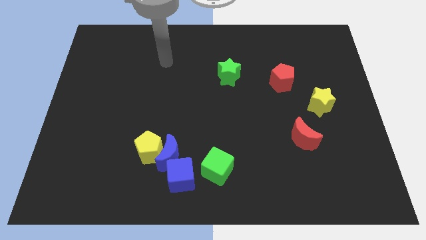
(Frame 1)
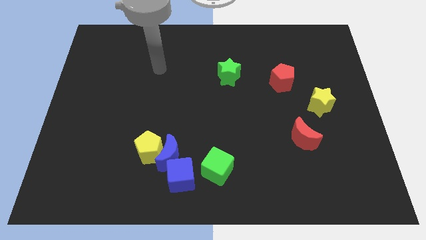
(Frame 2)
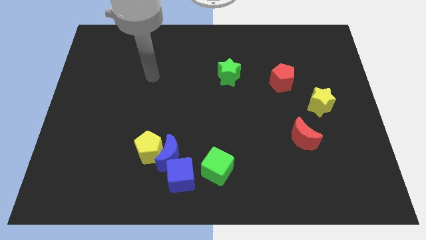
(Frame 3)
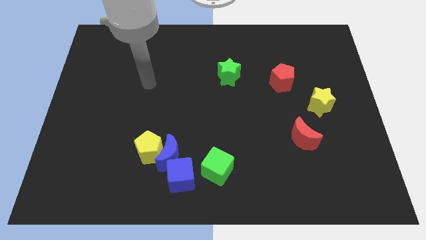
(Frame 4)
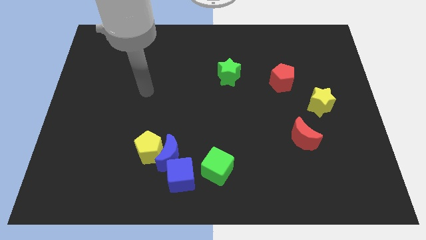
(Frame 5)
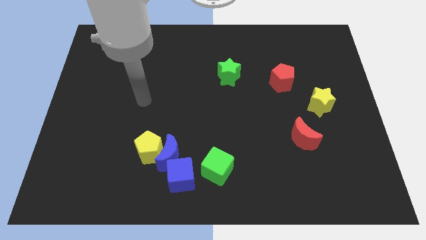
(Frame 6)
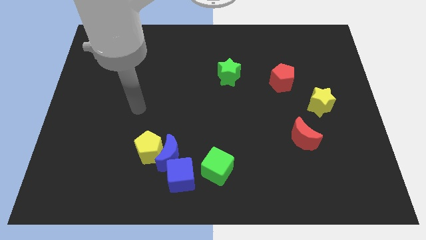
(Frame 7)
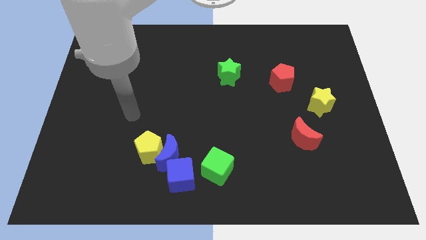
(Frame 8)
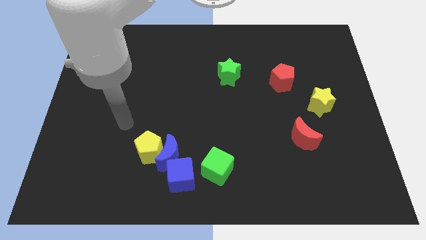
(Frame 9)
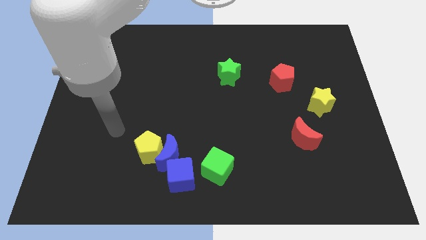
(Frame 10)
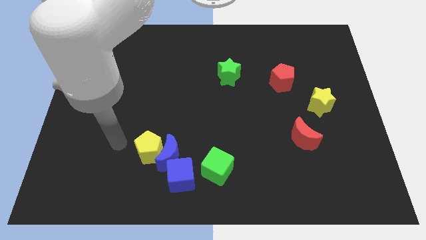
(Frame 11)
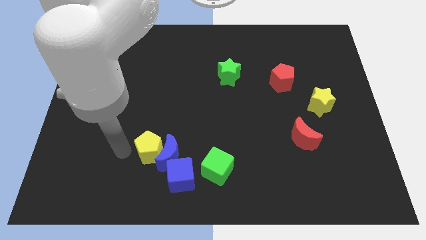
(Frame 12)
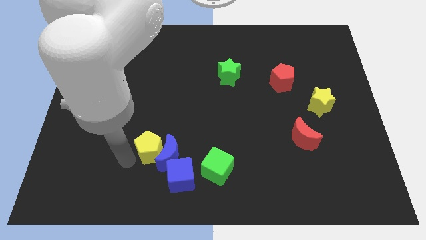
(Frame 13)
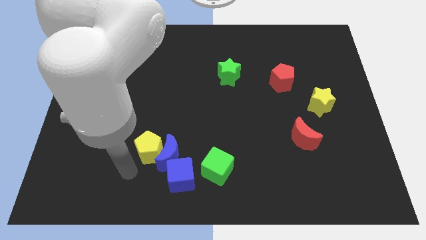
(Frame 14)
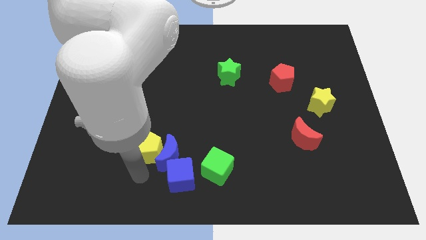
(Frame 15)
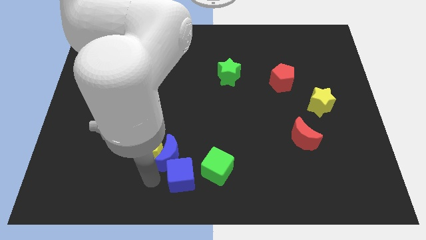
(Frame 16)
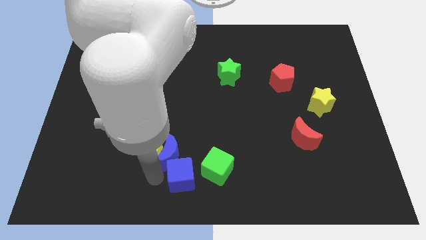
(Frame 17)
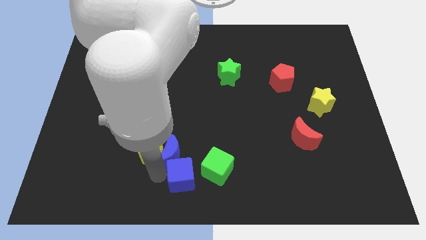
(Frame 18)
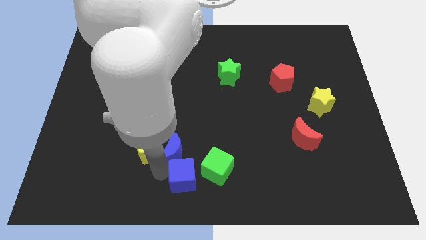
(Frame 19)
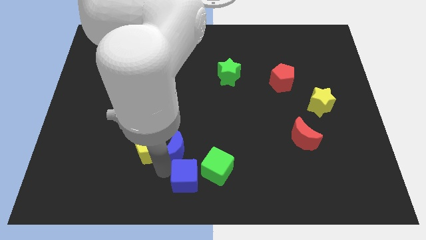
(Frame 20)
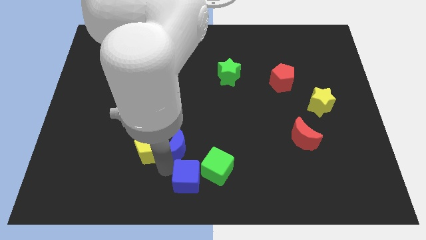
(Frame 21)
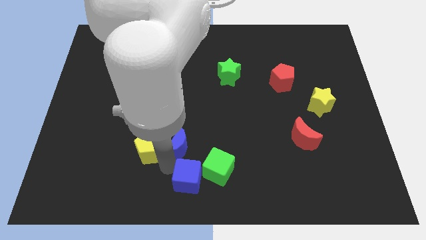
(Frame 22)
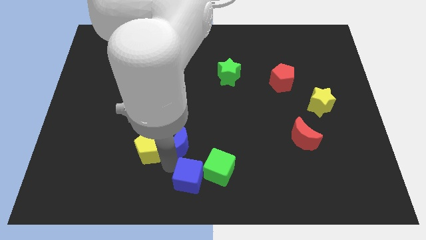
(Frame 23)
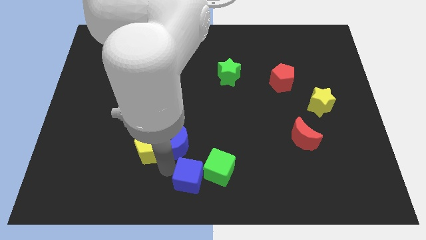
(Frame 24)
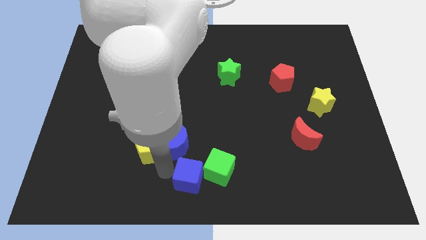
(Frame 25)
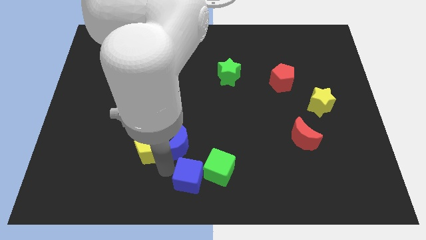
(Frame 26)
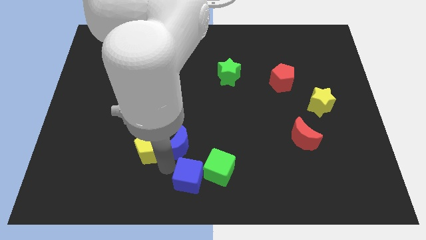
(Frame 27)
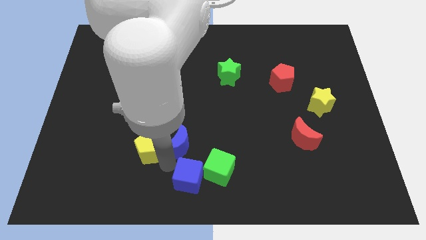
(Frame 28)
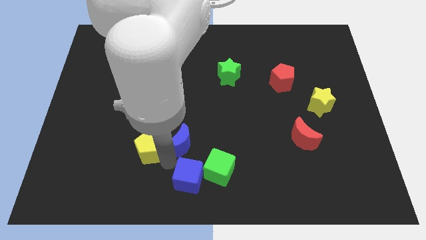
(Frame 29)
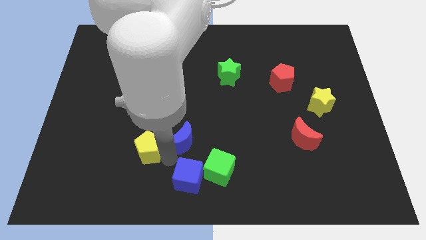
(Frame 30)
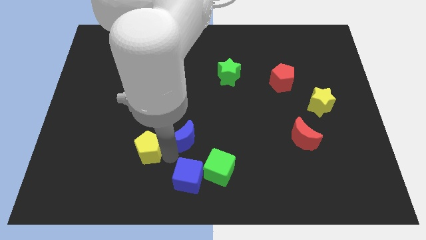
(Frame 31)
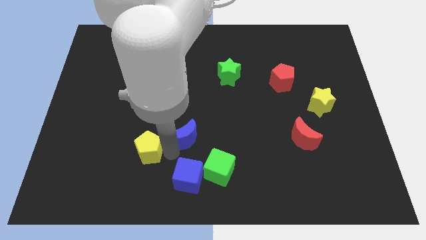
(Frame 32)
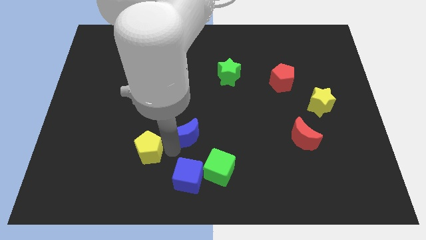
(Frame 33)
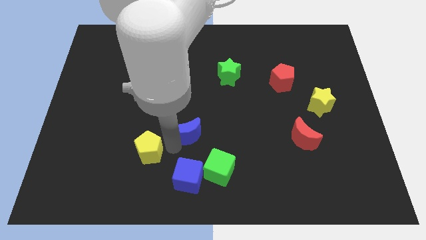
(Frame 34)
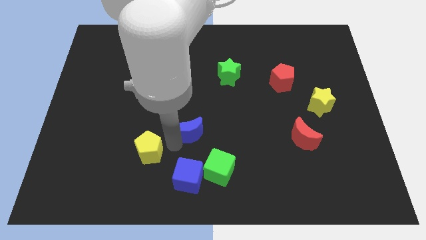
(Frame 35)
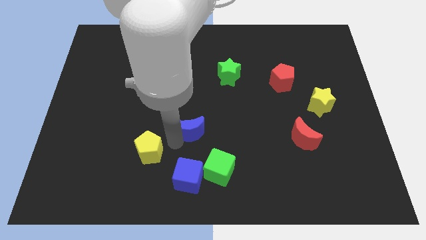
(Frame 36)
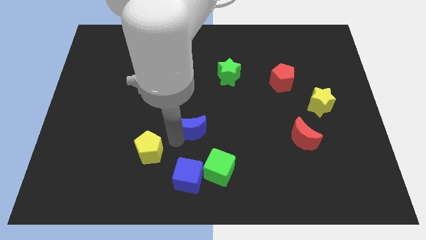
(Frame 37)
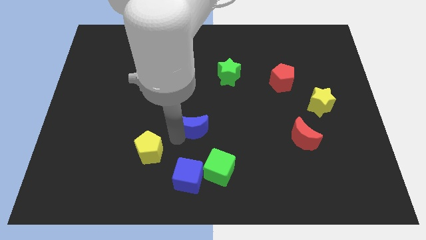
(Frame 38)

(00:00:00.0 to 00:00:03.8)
pull the blue moon apart from the yellow pentagon and blue cube

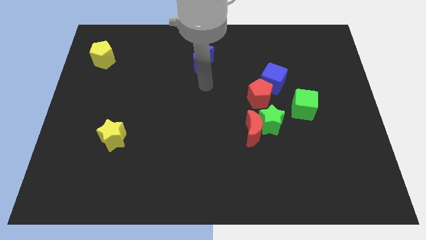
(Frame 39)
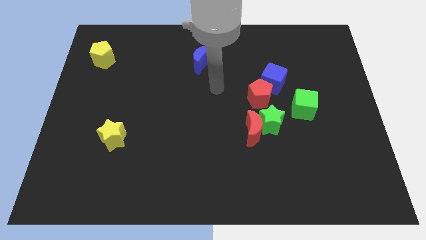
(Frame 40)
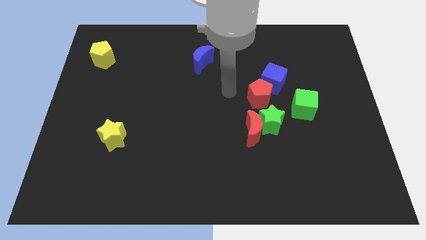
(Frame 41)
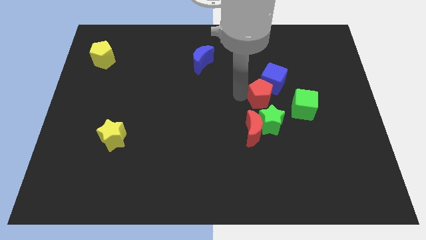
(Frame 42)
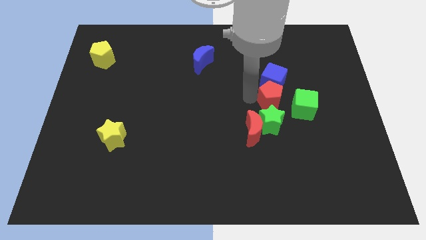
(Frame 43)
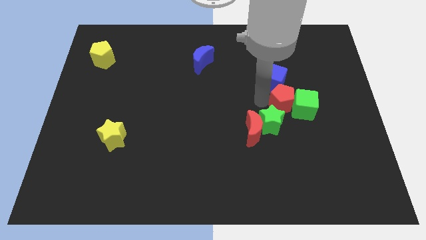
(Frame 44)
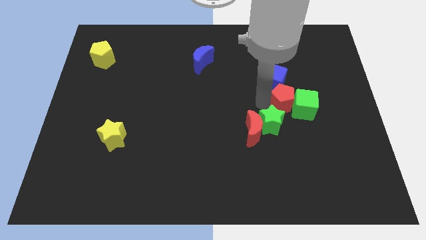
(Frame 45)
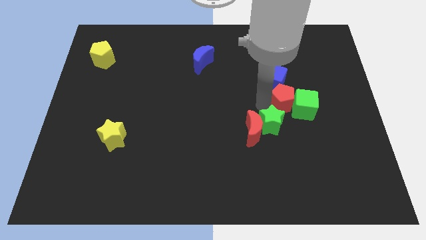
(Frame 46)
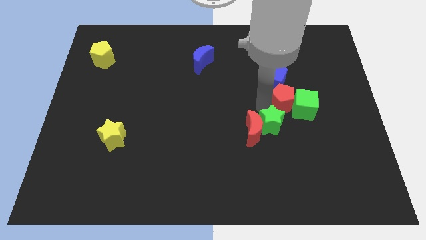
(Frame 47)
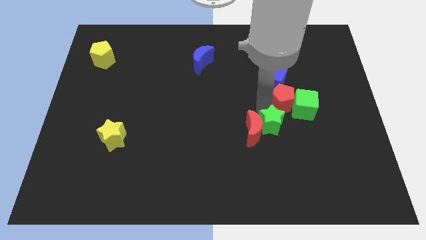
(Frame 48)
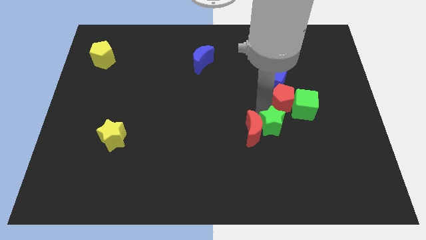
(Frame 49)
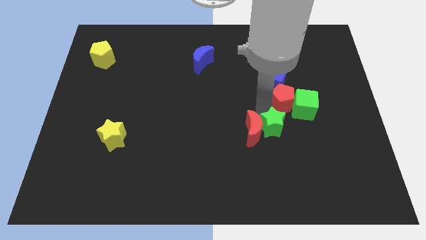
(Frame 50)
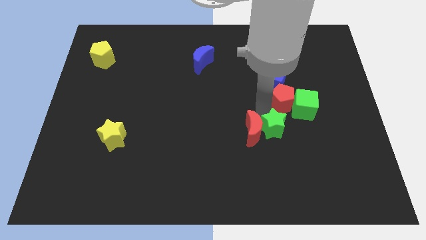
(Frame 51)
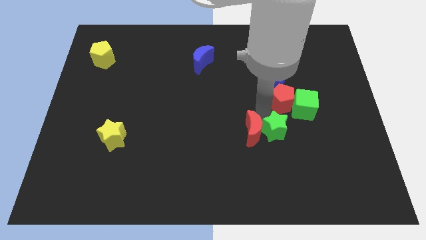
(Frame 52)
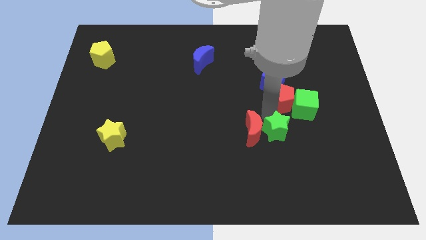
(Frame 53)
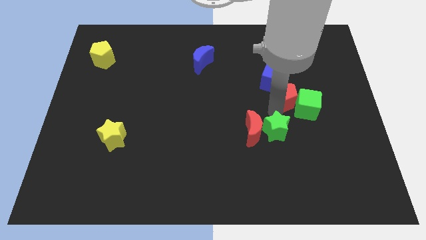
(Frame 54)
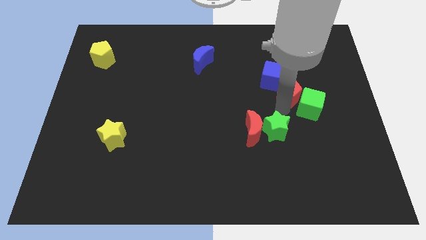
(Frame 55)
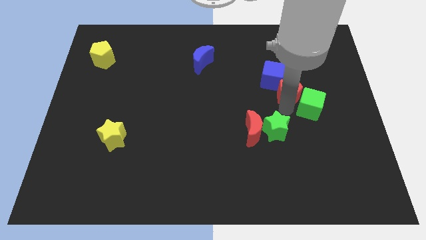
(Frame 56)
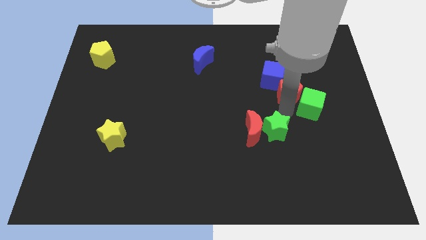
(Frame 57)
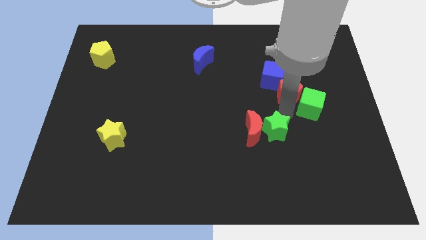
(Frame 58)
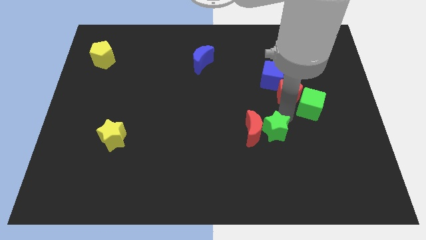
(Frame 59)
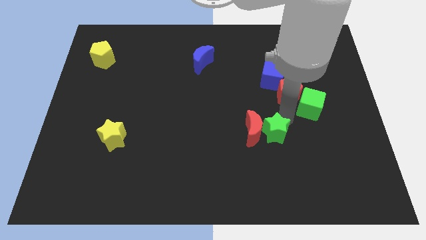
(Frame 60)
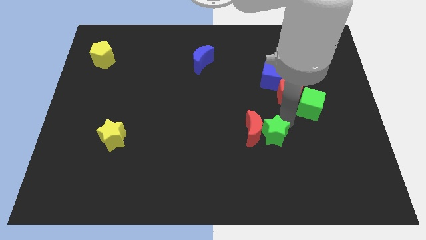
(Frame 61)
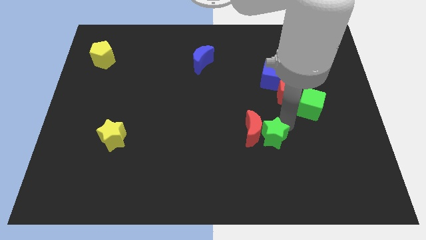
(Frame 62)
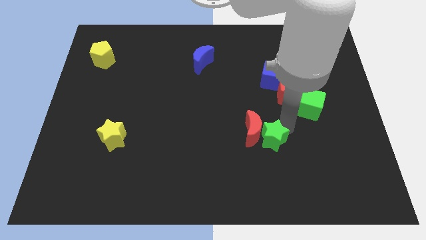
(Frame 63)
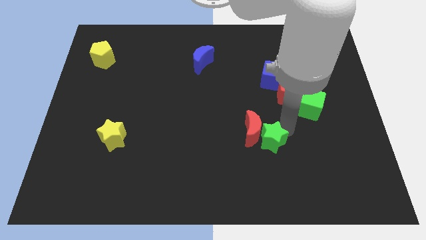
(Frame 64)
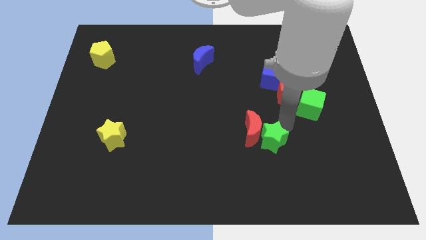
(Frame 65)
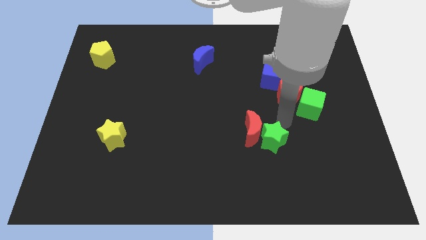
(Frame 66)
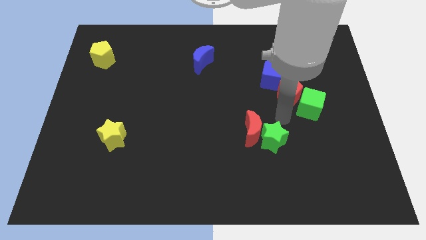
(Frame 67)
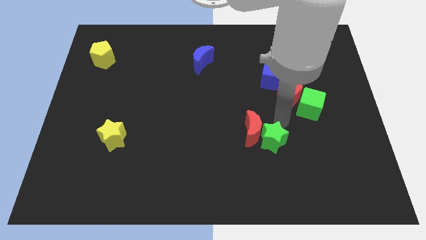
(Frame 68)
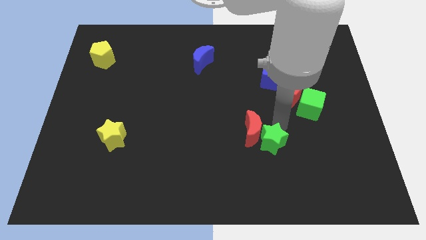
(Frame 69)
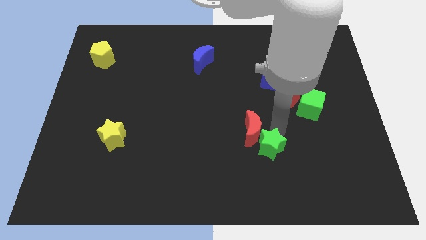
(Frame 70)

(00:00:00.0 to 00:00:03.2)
move the green star away from the red moon, red pentagon, and green cube

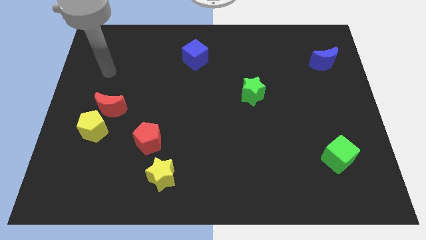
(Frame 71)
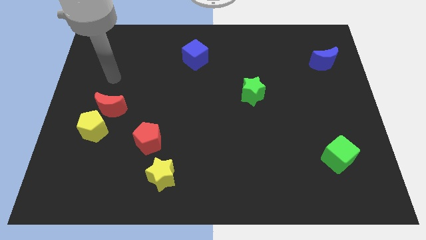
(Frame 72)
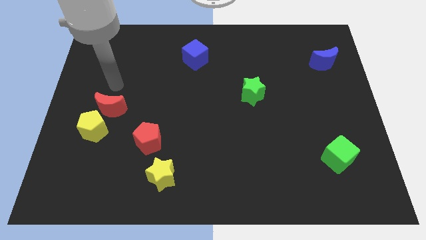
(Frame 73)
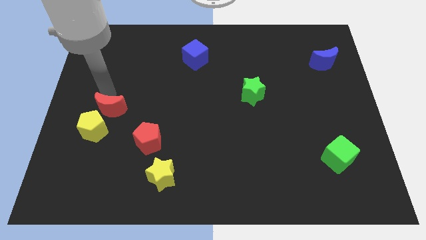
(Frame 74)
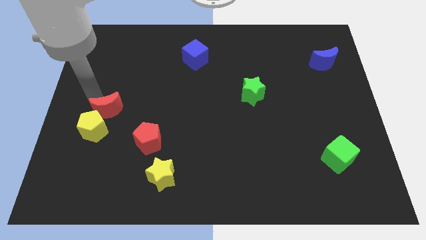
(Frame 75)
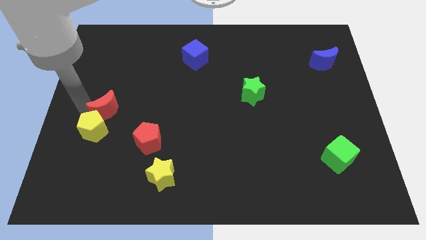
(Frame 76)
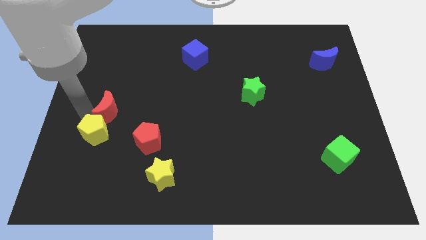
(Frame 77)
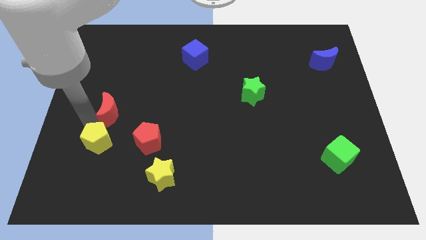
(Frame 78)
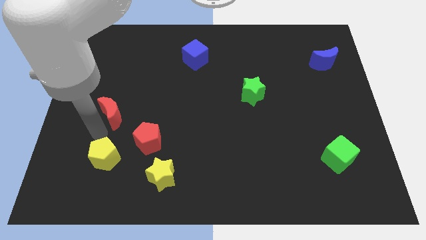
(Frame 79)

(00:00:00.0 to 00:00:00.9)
separate the red moon from the yellow pentagon

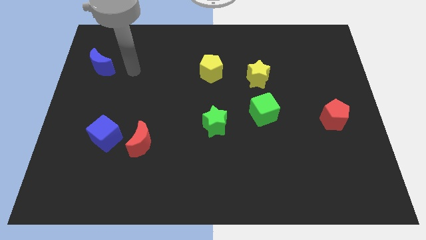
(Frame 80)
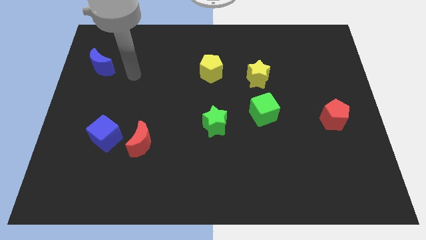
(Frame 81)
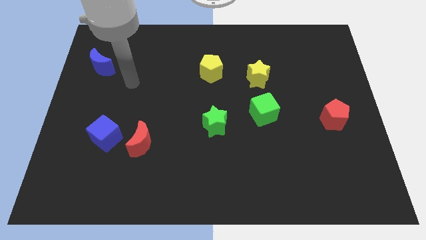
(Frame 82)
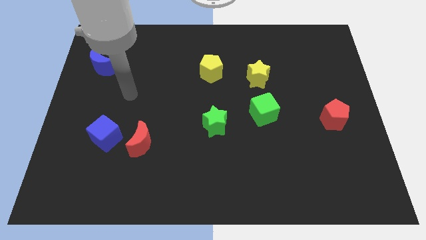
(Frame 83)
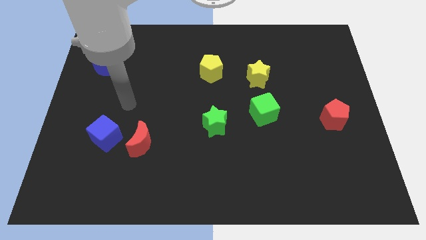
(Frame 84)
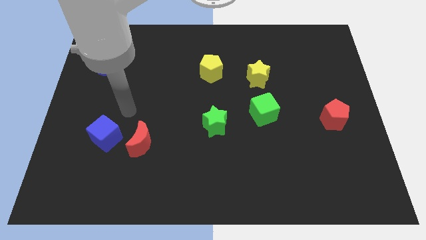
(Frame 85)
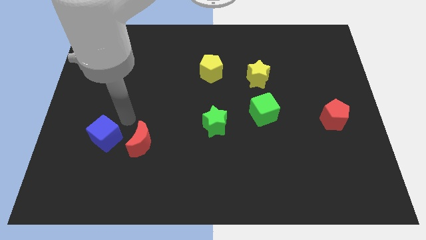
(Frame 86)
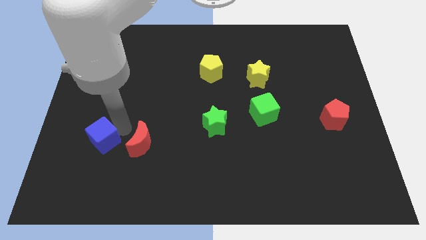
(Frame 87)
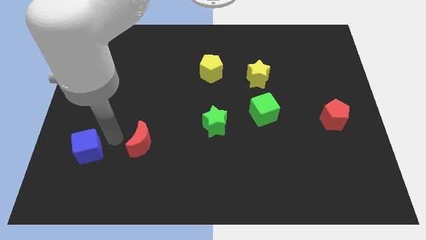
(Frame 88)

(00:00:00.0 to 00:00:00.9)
move the red moon away from the blue cube

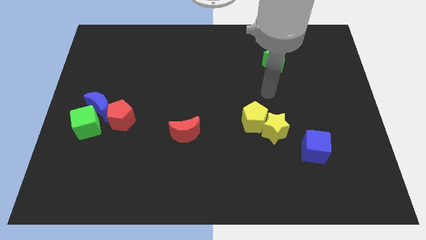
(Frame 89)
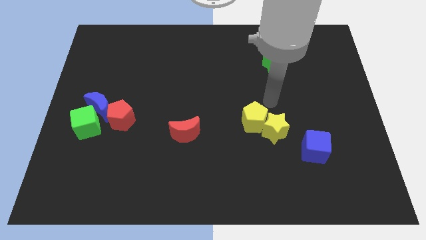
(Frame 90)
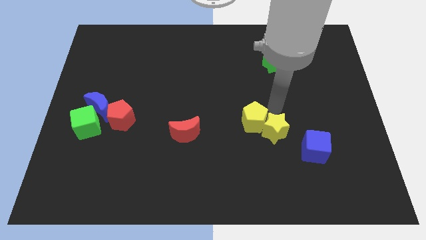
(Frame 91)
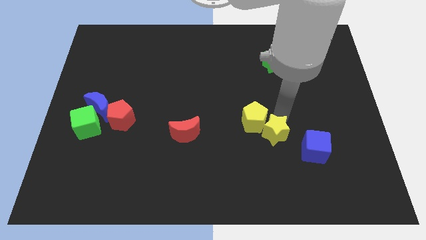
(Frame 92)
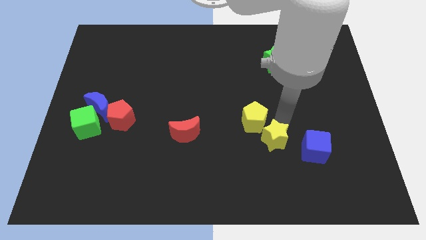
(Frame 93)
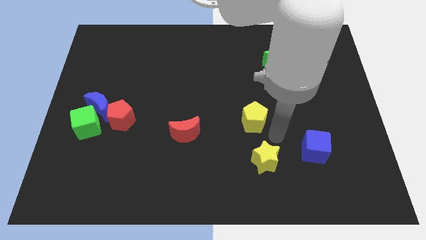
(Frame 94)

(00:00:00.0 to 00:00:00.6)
pull the yellow pentagon apart from the yellow star
